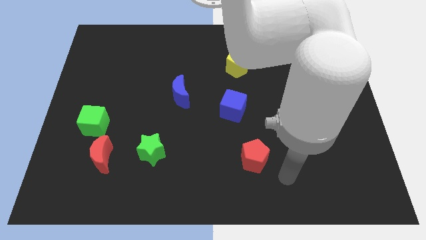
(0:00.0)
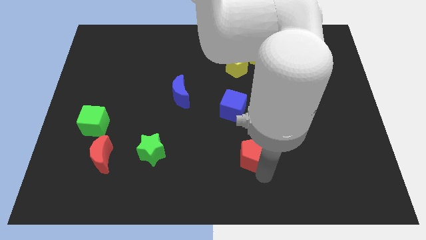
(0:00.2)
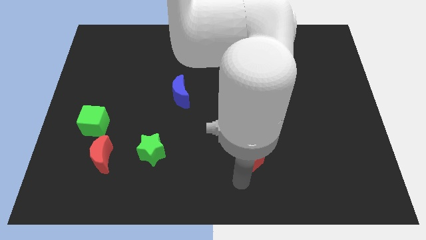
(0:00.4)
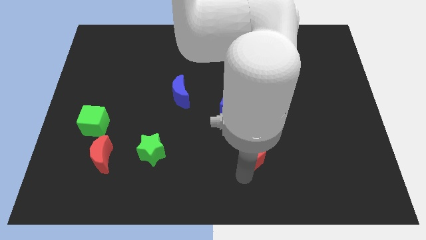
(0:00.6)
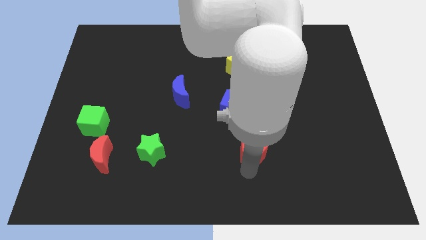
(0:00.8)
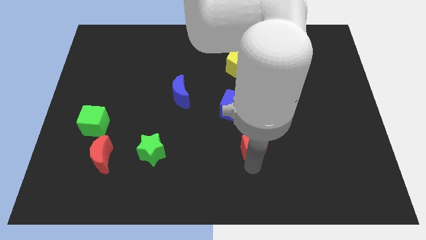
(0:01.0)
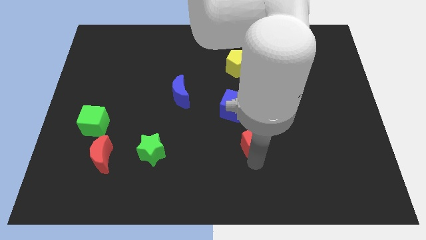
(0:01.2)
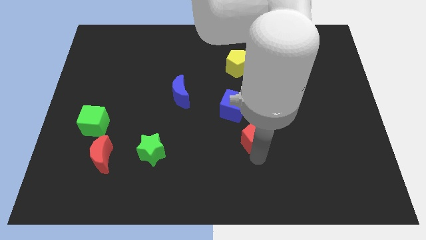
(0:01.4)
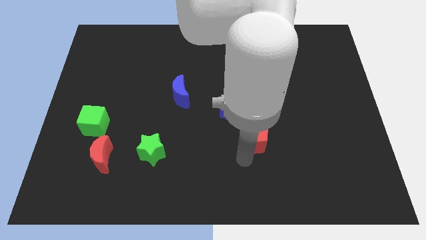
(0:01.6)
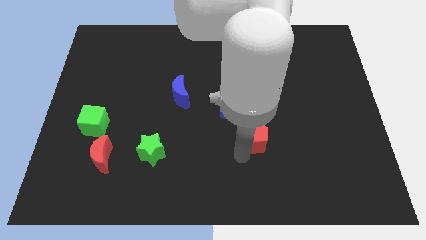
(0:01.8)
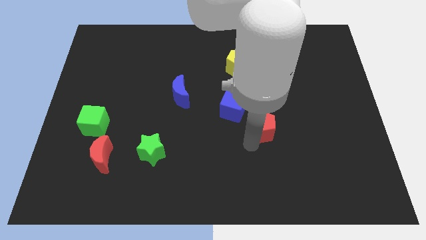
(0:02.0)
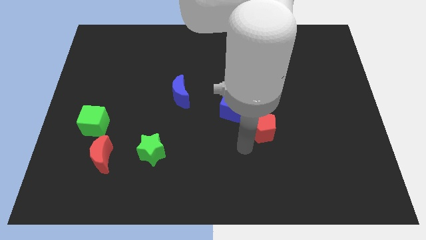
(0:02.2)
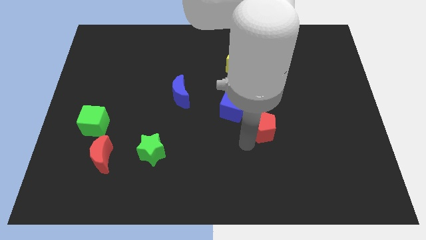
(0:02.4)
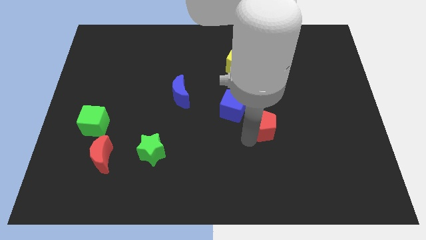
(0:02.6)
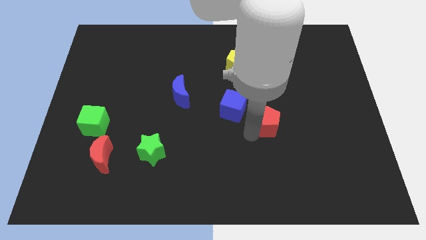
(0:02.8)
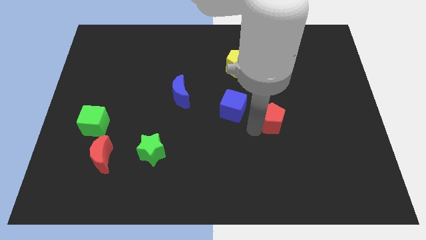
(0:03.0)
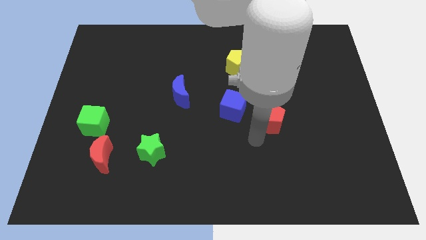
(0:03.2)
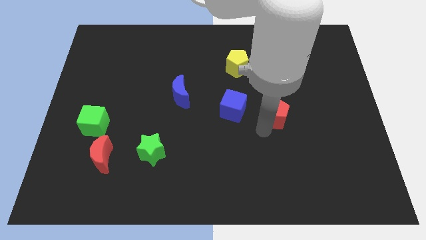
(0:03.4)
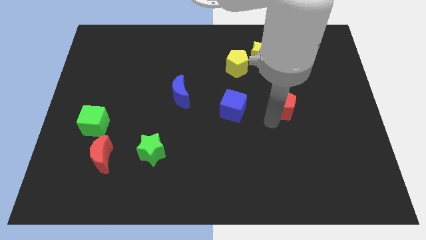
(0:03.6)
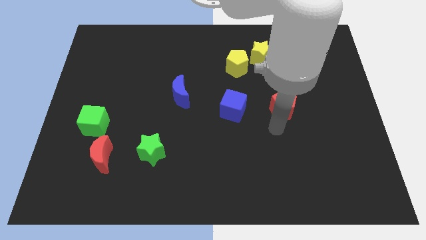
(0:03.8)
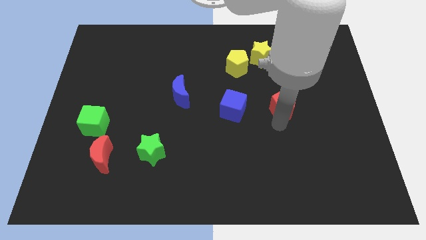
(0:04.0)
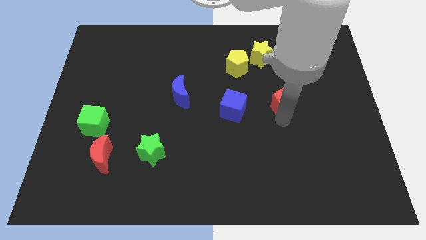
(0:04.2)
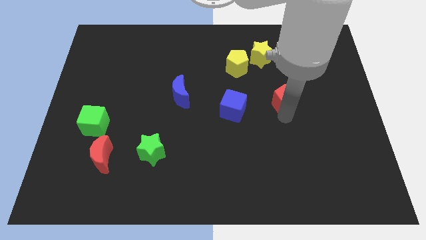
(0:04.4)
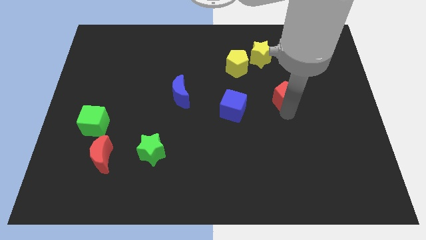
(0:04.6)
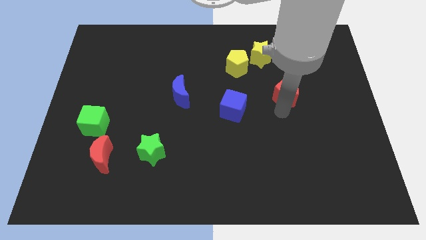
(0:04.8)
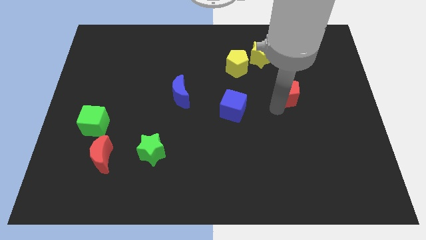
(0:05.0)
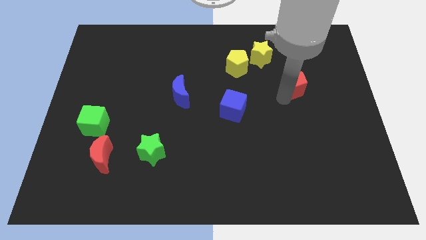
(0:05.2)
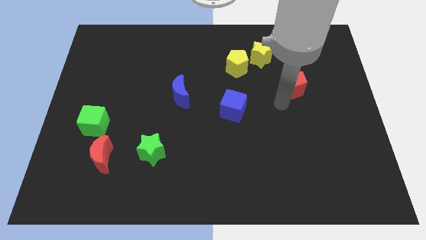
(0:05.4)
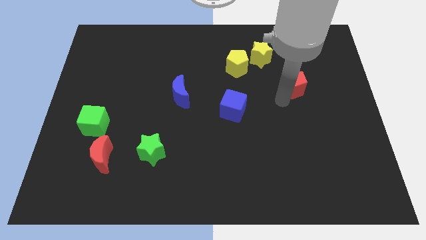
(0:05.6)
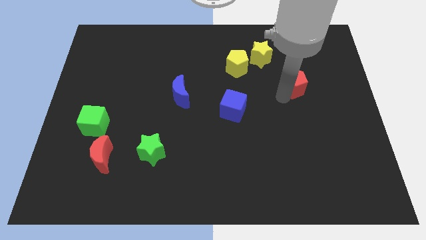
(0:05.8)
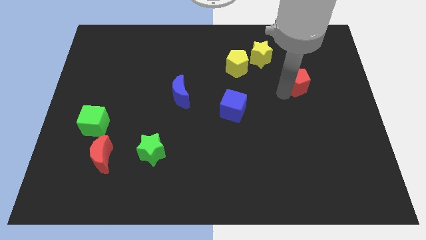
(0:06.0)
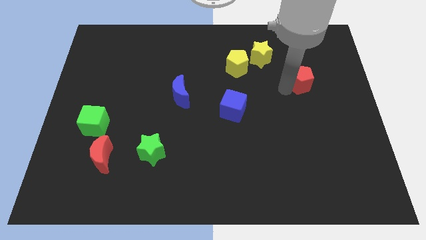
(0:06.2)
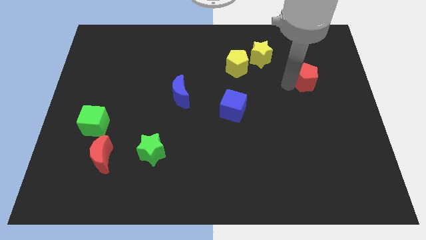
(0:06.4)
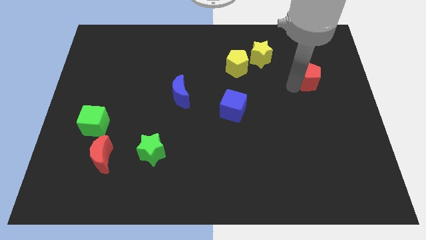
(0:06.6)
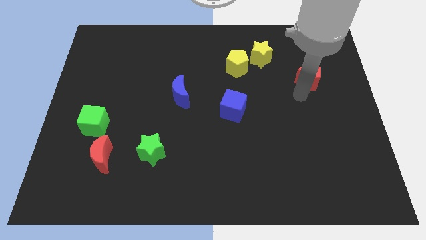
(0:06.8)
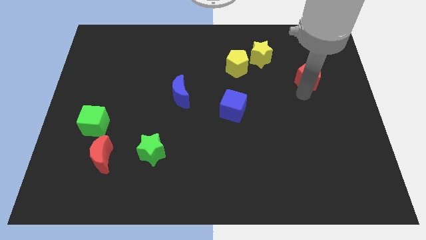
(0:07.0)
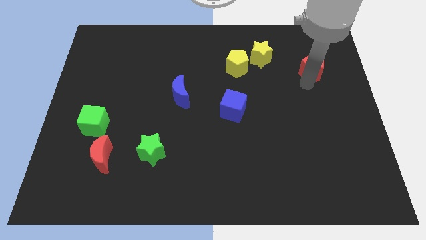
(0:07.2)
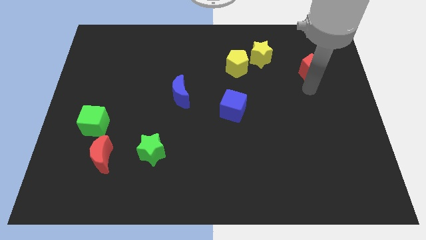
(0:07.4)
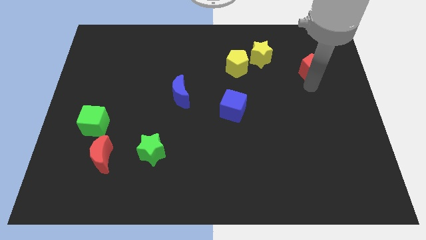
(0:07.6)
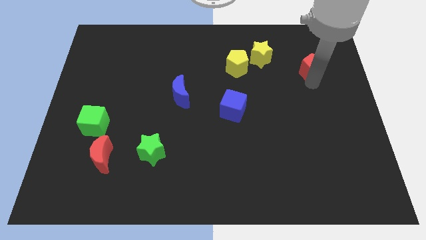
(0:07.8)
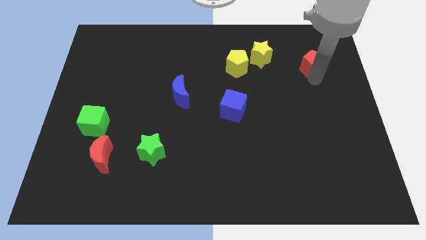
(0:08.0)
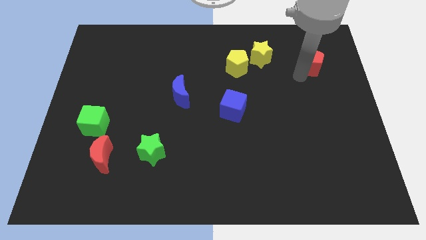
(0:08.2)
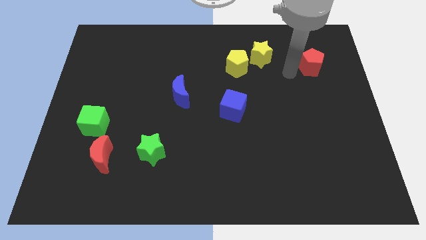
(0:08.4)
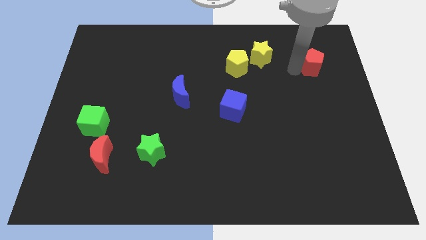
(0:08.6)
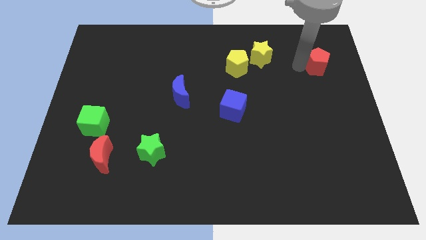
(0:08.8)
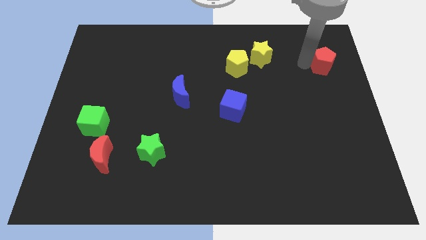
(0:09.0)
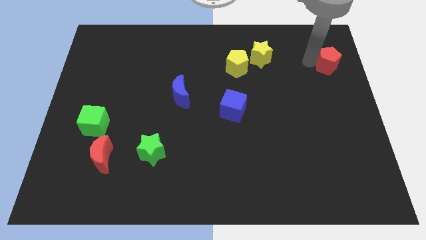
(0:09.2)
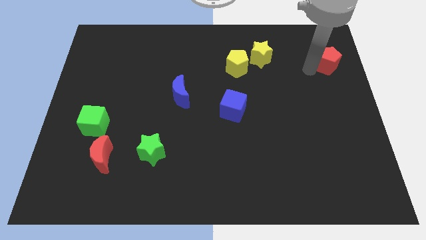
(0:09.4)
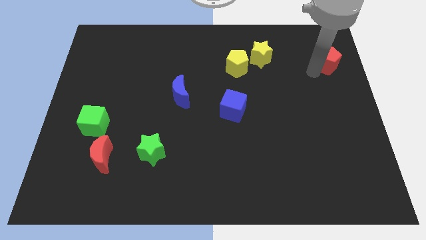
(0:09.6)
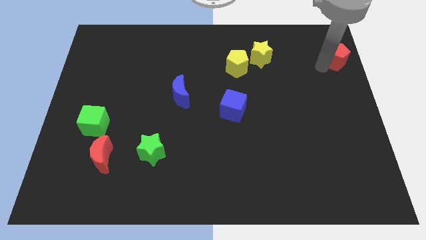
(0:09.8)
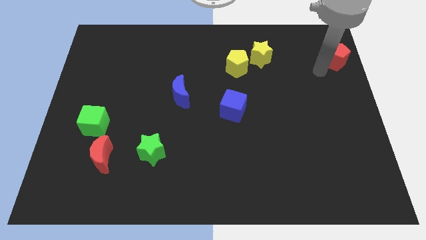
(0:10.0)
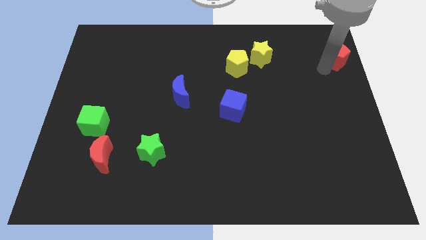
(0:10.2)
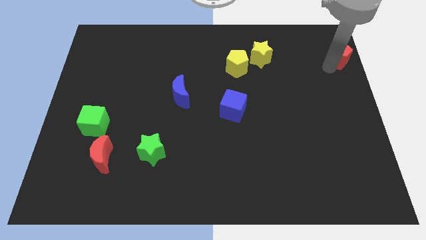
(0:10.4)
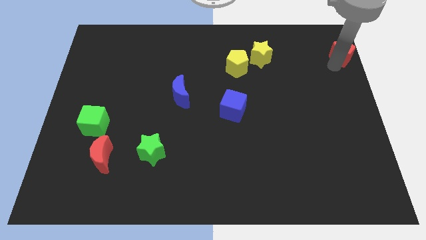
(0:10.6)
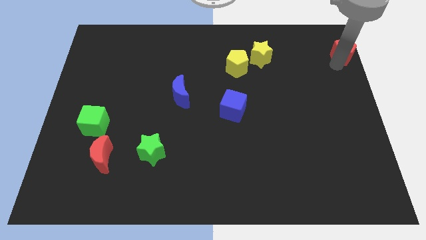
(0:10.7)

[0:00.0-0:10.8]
put the red pentagon to the top right corner

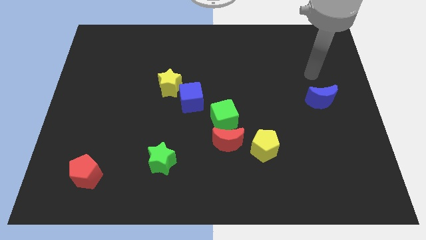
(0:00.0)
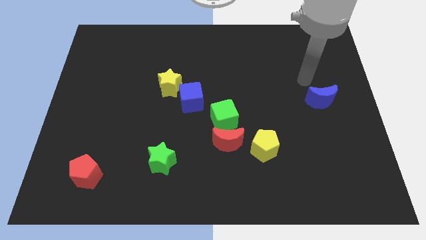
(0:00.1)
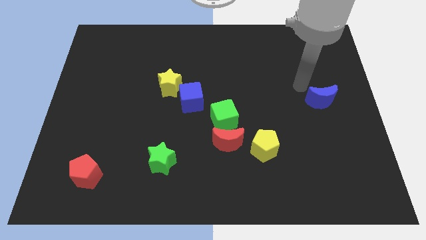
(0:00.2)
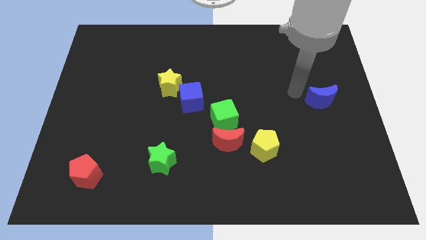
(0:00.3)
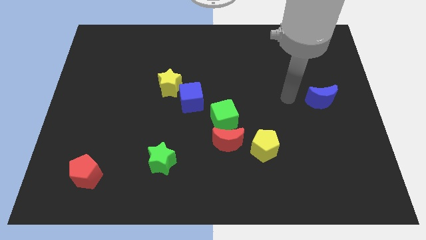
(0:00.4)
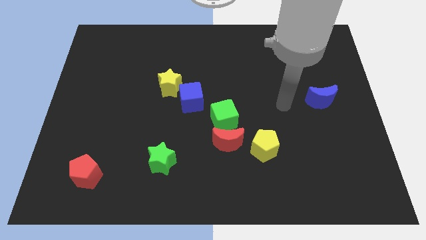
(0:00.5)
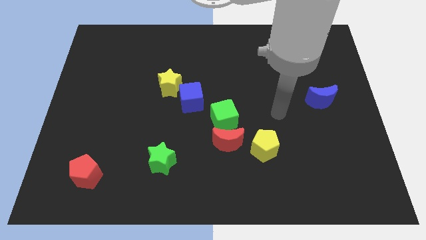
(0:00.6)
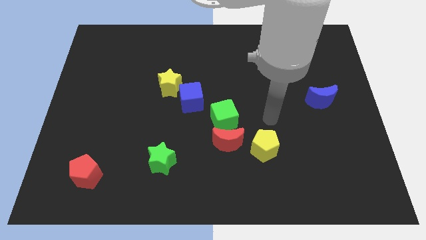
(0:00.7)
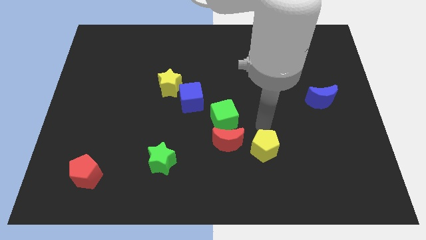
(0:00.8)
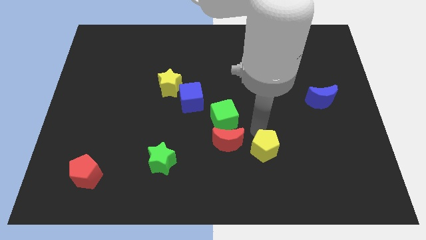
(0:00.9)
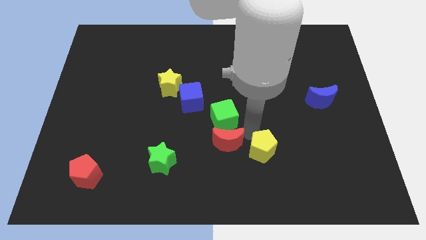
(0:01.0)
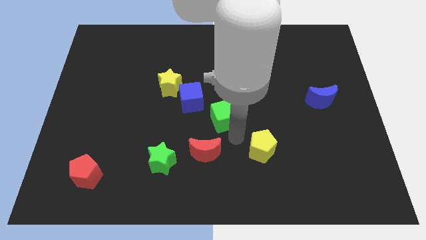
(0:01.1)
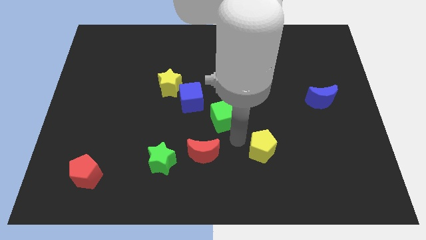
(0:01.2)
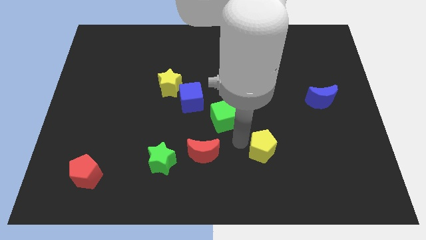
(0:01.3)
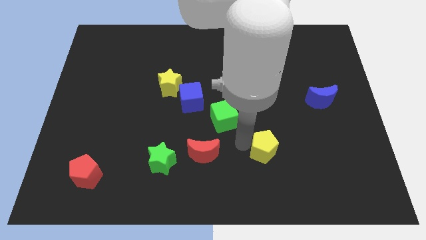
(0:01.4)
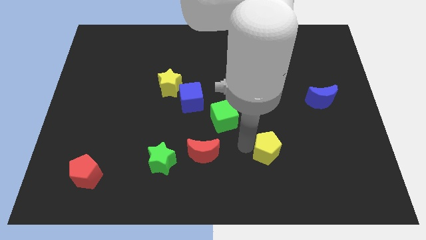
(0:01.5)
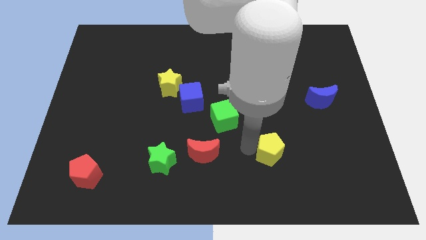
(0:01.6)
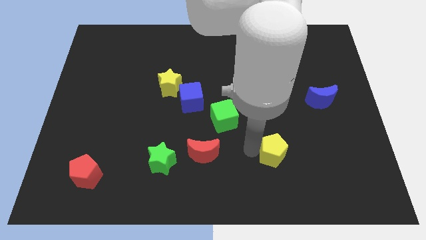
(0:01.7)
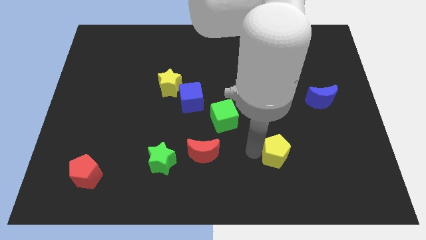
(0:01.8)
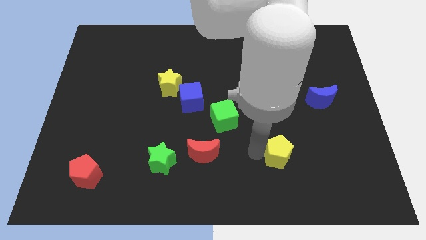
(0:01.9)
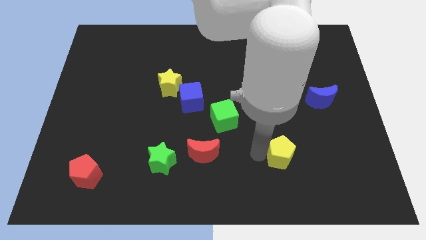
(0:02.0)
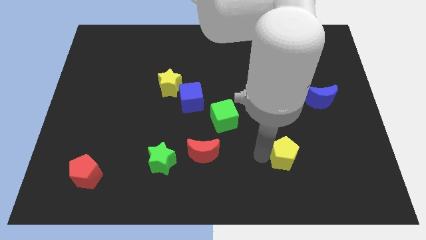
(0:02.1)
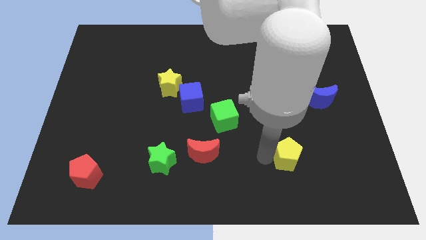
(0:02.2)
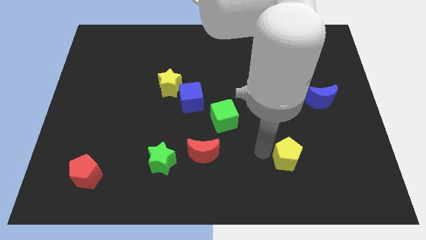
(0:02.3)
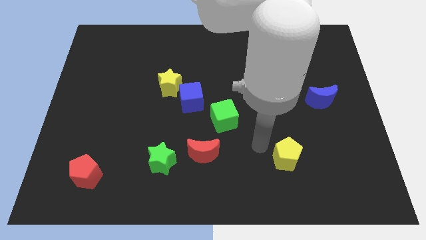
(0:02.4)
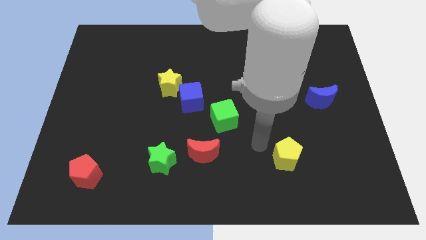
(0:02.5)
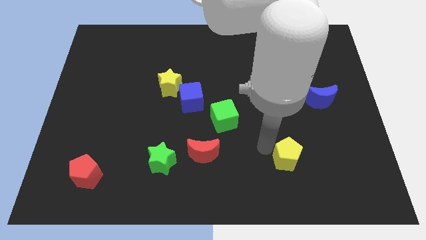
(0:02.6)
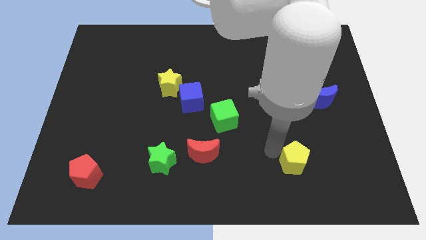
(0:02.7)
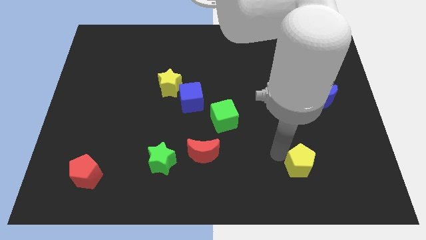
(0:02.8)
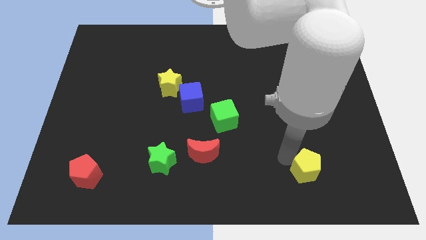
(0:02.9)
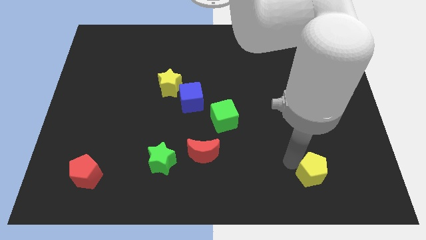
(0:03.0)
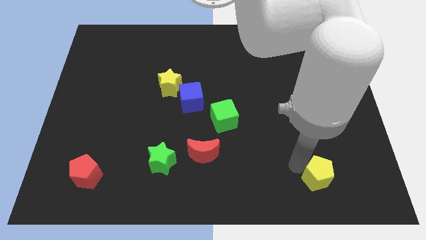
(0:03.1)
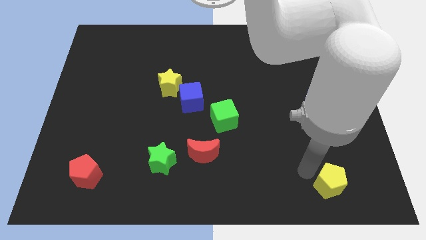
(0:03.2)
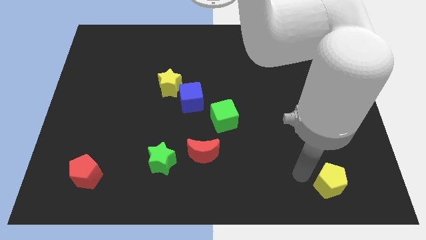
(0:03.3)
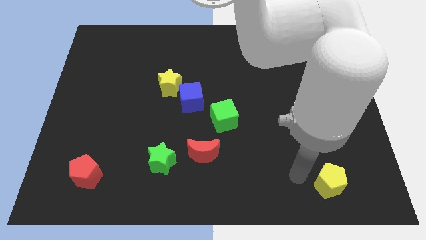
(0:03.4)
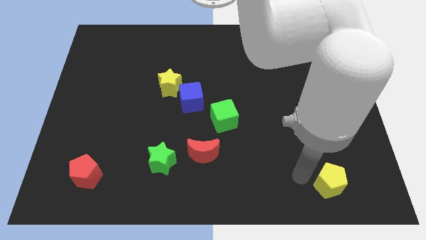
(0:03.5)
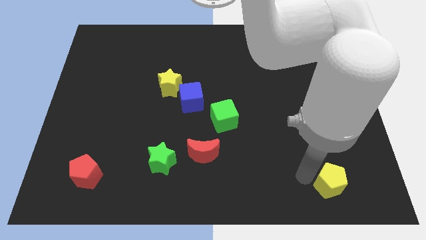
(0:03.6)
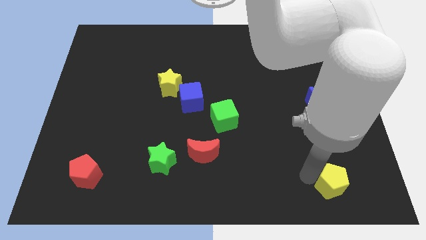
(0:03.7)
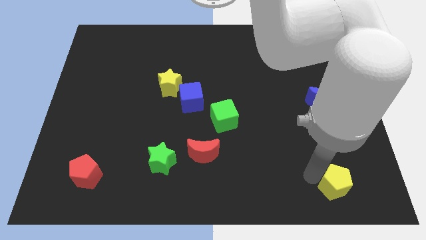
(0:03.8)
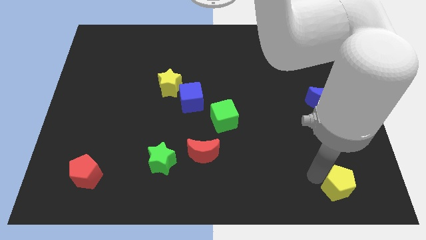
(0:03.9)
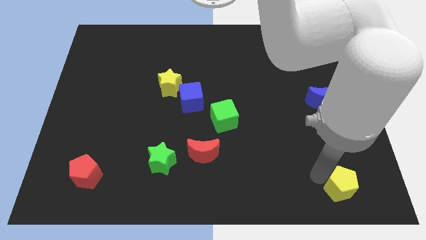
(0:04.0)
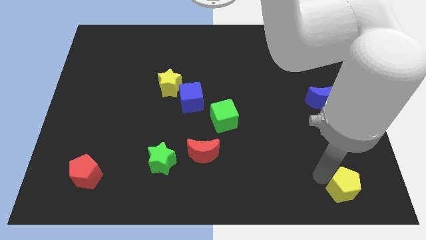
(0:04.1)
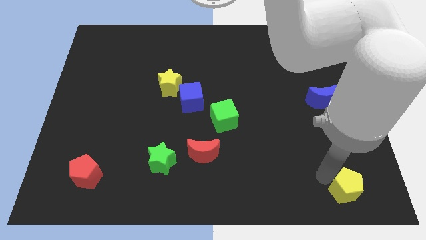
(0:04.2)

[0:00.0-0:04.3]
slide the yellow pentagon to the bottom right
